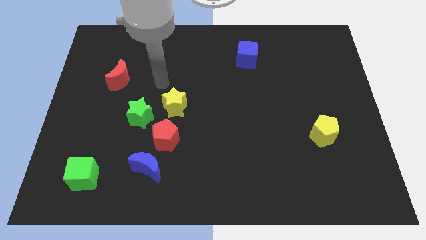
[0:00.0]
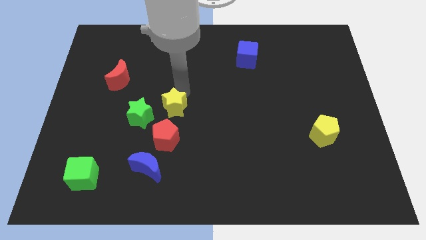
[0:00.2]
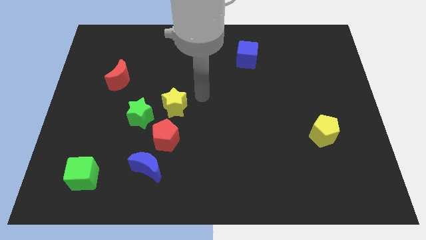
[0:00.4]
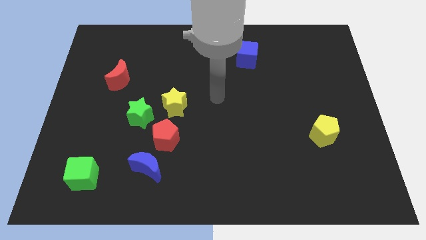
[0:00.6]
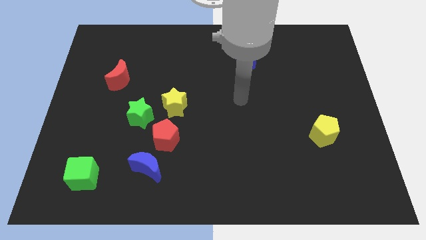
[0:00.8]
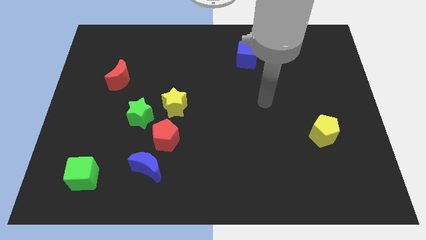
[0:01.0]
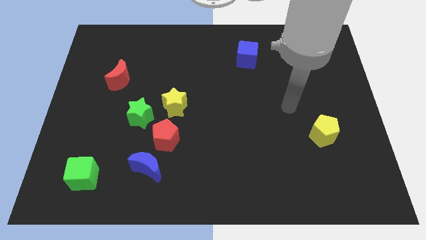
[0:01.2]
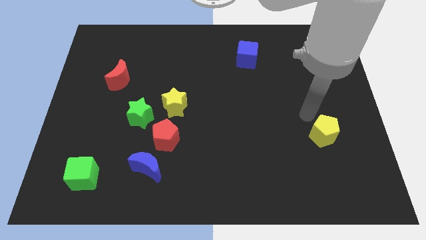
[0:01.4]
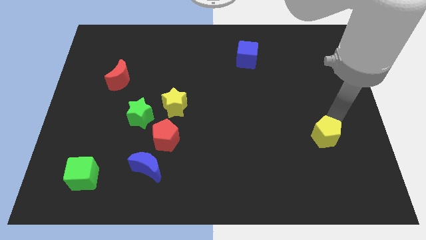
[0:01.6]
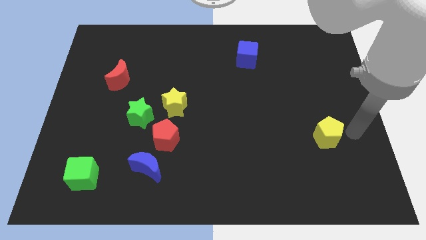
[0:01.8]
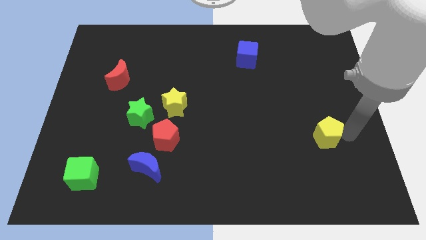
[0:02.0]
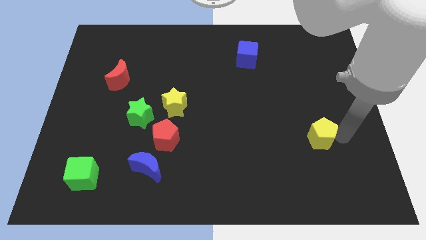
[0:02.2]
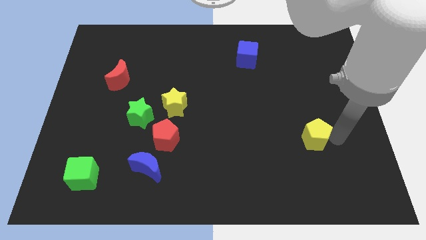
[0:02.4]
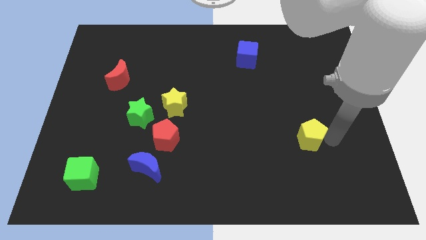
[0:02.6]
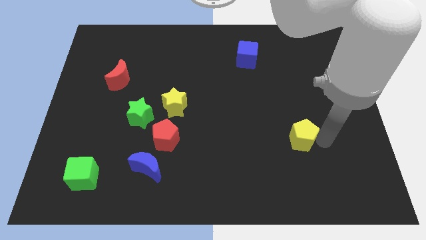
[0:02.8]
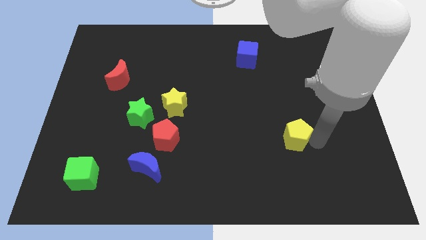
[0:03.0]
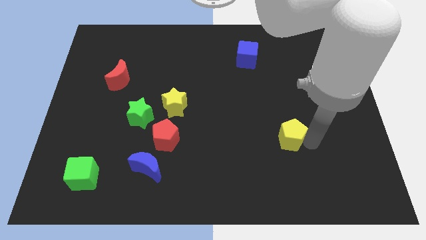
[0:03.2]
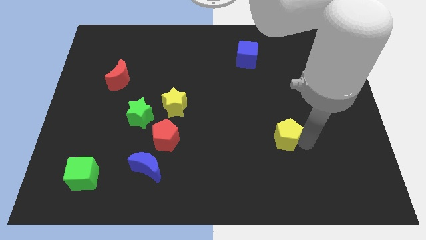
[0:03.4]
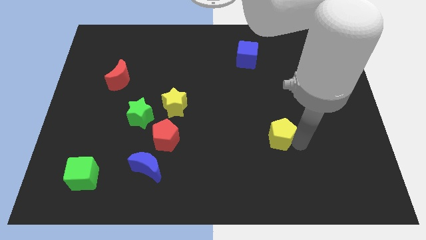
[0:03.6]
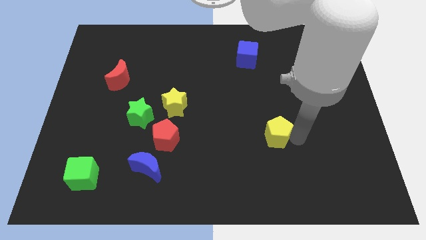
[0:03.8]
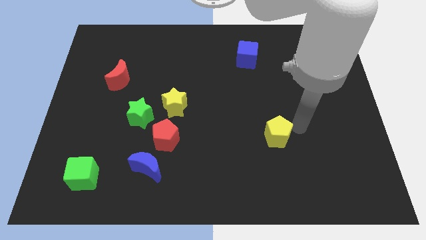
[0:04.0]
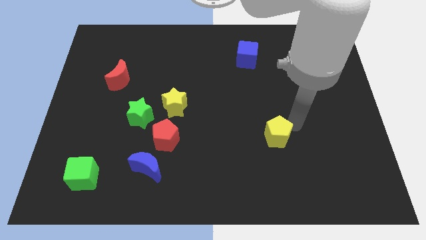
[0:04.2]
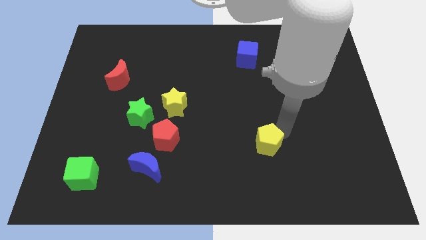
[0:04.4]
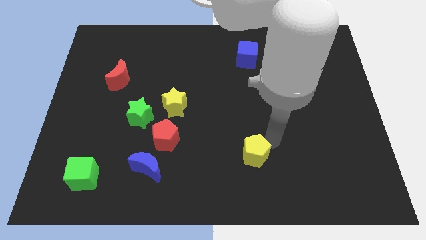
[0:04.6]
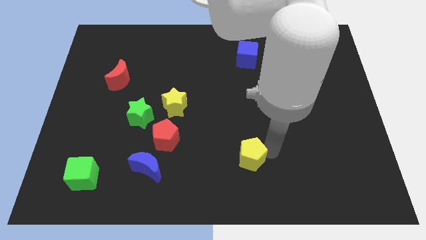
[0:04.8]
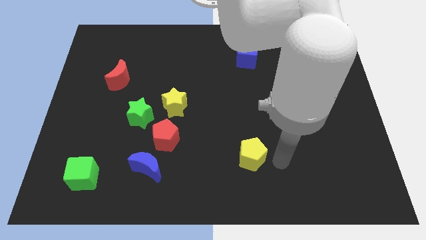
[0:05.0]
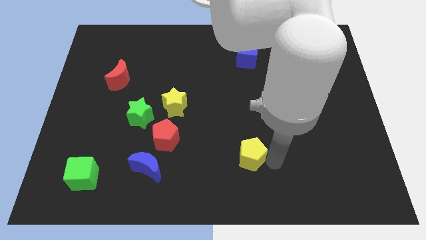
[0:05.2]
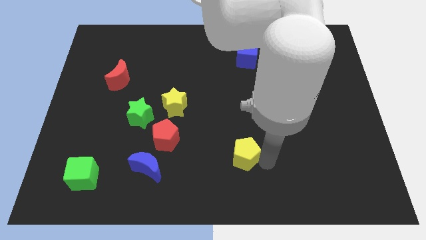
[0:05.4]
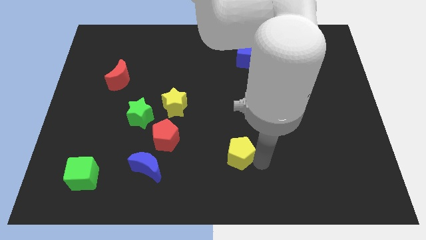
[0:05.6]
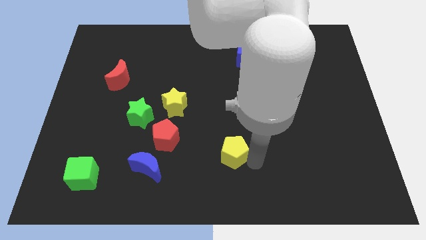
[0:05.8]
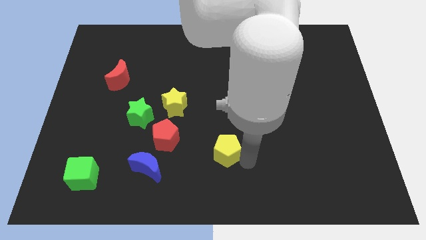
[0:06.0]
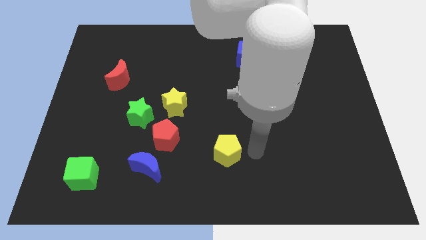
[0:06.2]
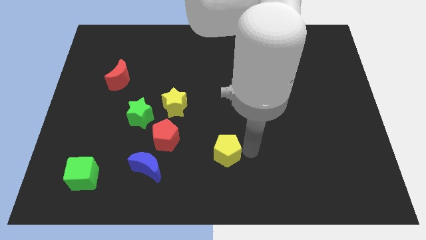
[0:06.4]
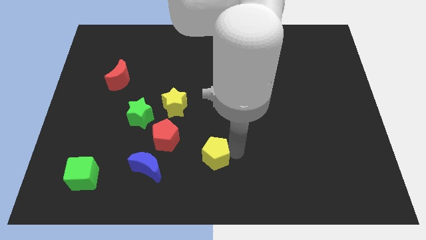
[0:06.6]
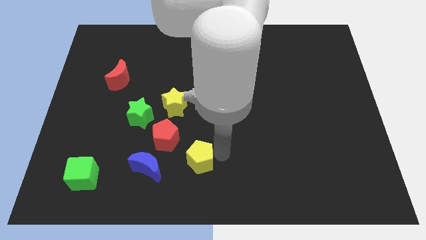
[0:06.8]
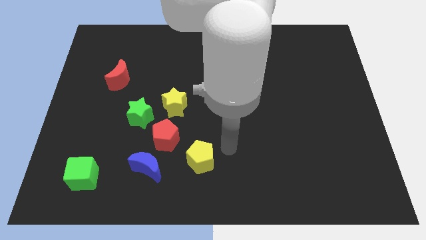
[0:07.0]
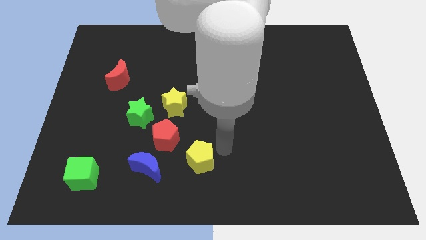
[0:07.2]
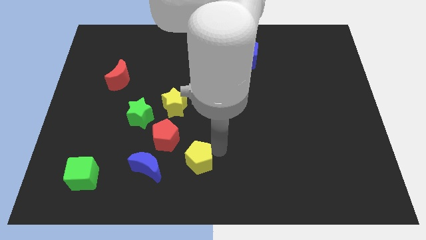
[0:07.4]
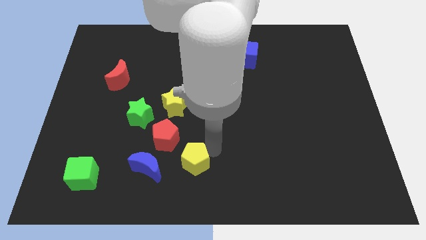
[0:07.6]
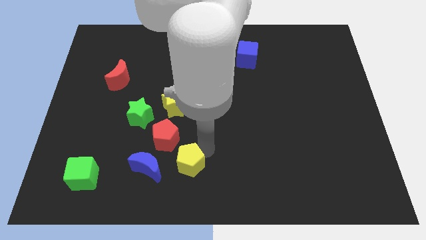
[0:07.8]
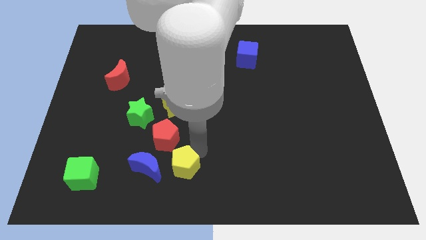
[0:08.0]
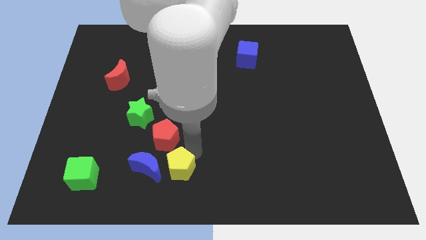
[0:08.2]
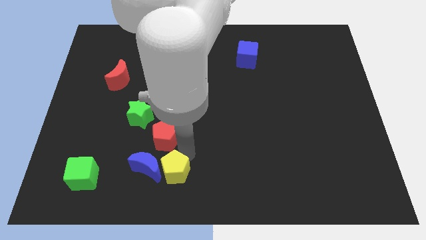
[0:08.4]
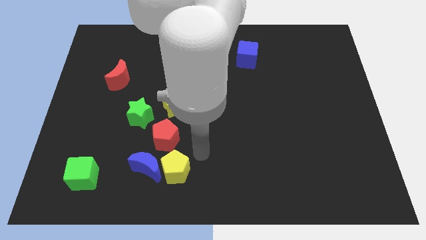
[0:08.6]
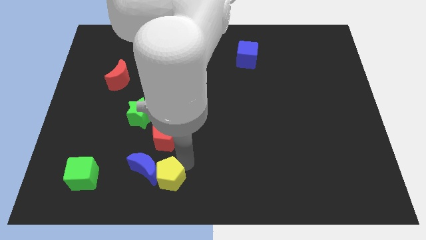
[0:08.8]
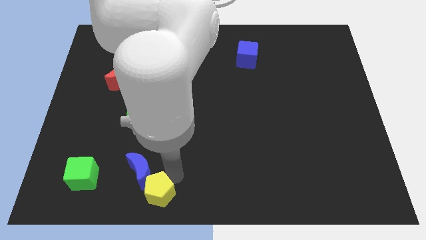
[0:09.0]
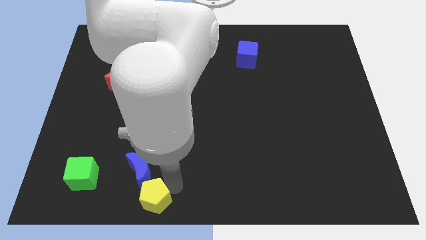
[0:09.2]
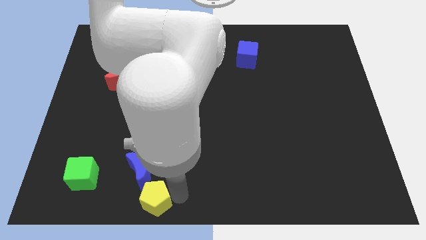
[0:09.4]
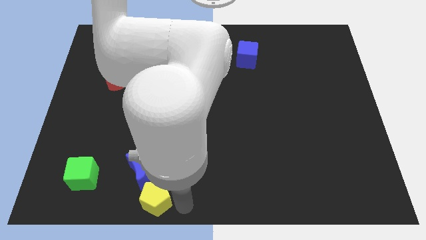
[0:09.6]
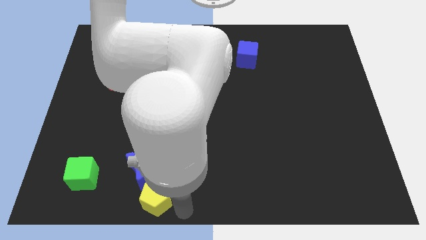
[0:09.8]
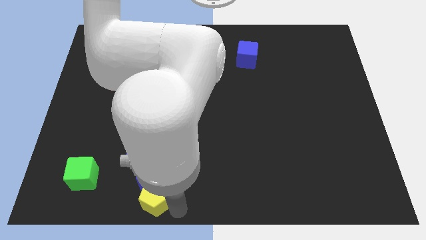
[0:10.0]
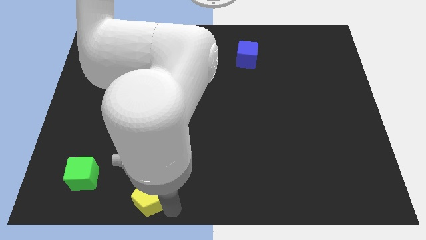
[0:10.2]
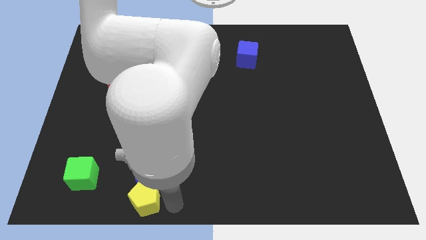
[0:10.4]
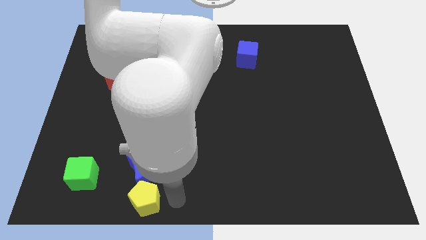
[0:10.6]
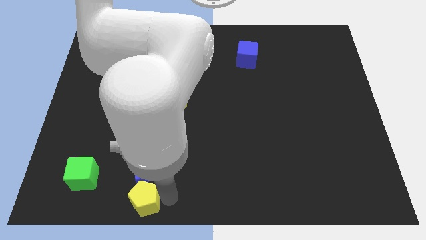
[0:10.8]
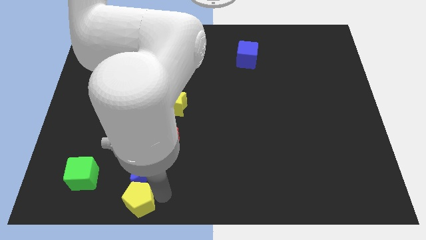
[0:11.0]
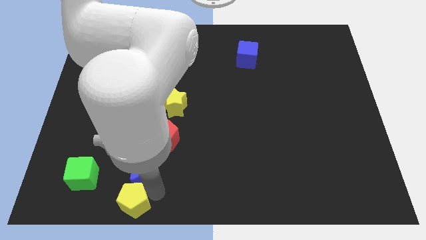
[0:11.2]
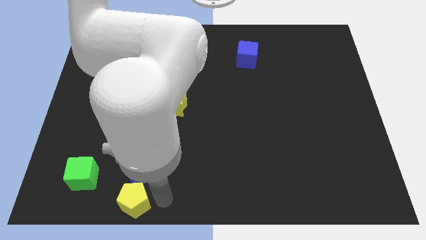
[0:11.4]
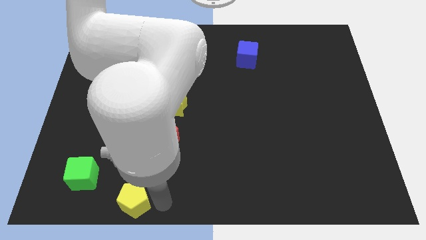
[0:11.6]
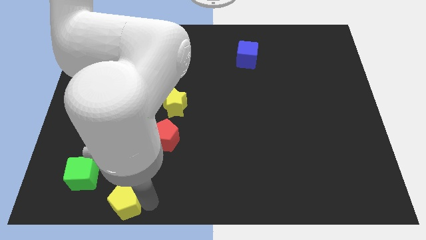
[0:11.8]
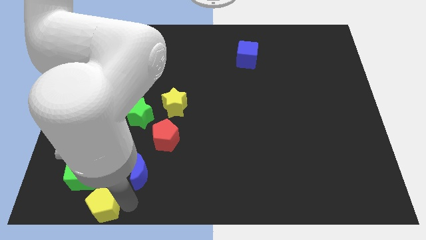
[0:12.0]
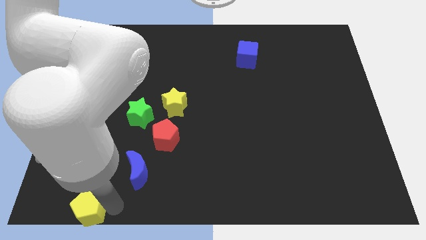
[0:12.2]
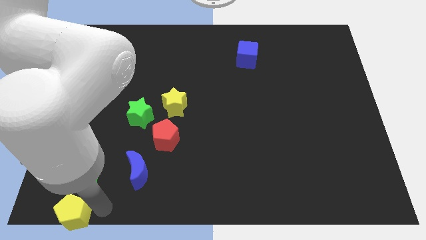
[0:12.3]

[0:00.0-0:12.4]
move the yellow pentagon to the lower left corner
